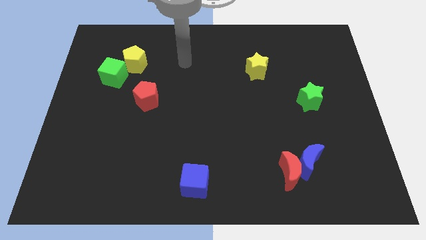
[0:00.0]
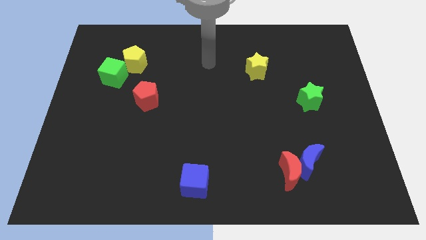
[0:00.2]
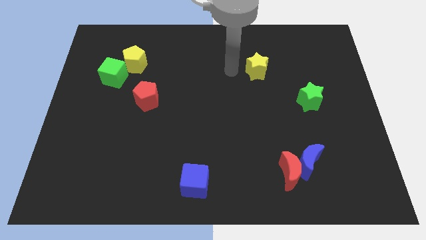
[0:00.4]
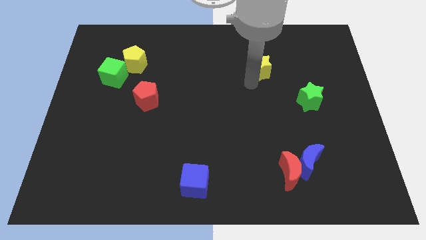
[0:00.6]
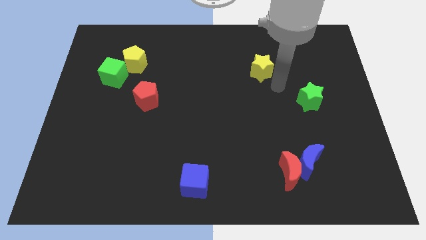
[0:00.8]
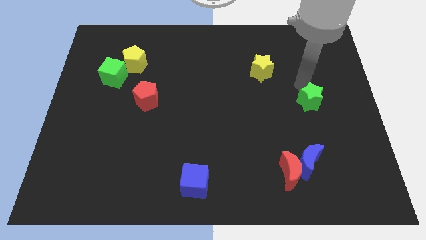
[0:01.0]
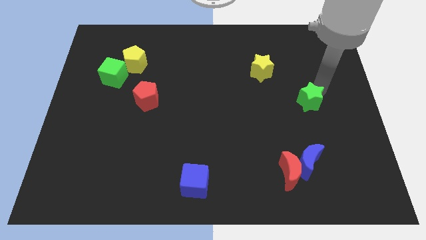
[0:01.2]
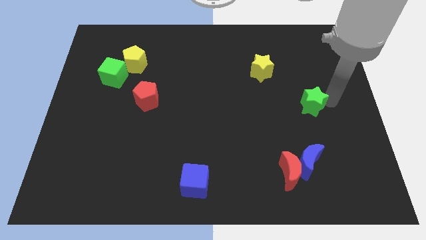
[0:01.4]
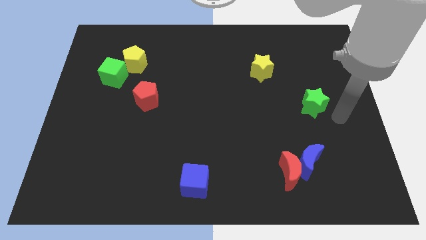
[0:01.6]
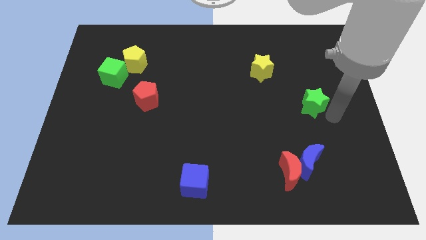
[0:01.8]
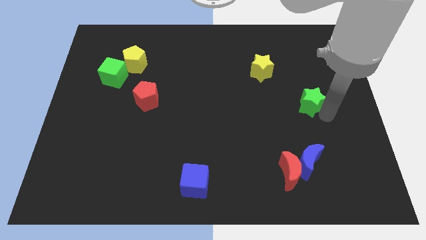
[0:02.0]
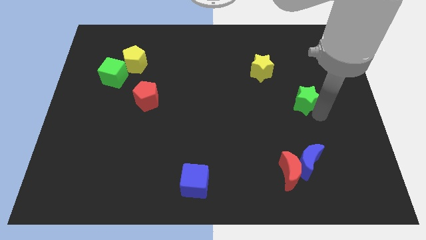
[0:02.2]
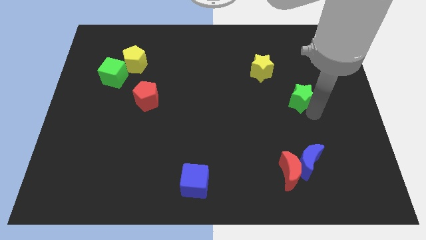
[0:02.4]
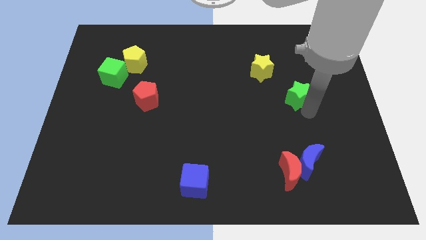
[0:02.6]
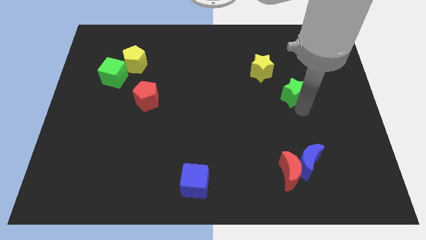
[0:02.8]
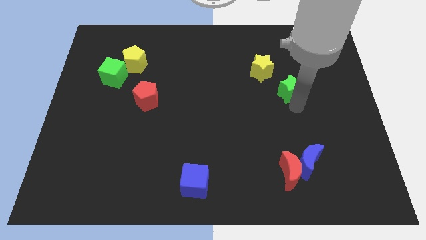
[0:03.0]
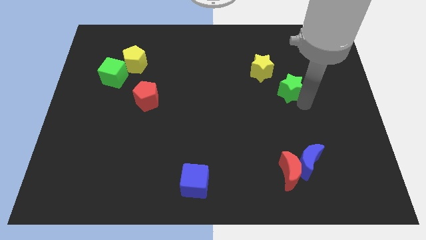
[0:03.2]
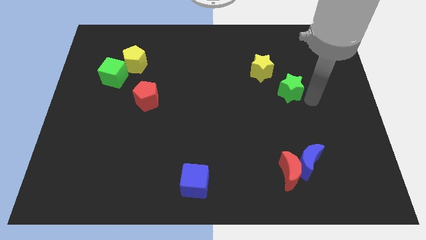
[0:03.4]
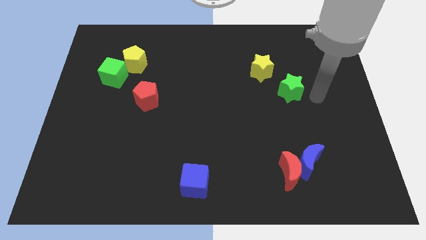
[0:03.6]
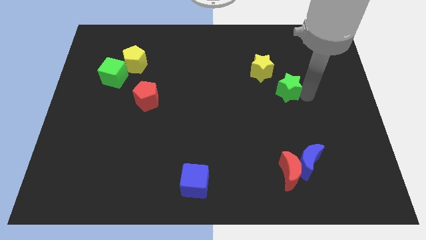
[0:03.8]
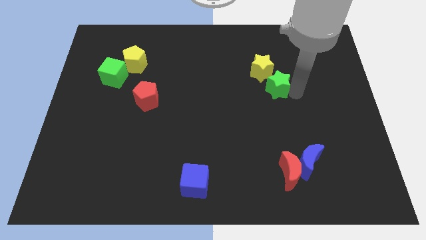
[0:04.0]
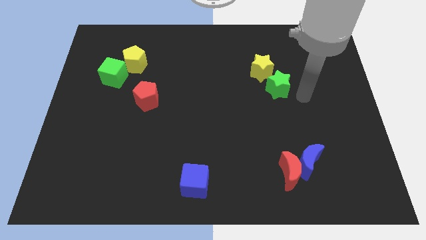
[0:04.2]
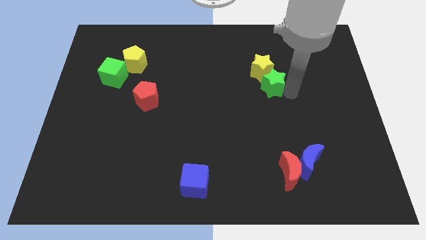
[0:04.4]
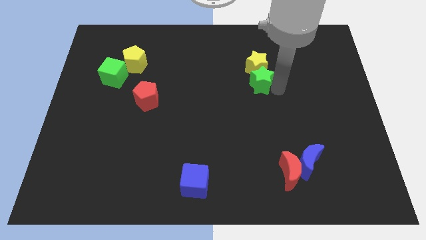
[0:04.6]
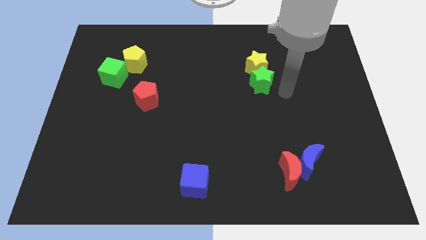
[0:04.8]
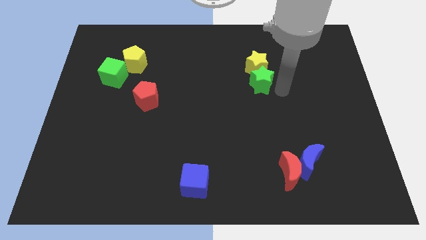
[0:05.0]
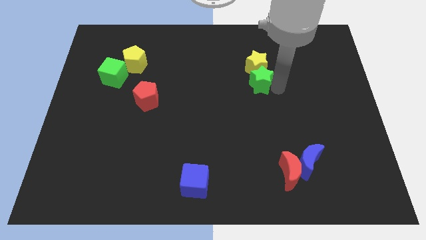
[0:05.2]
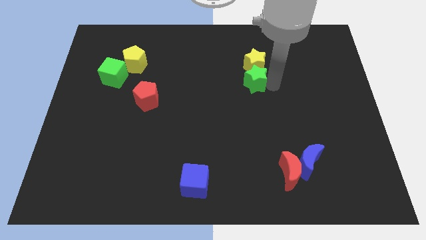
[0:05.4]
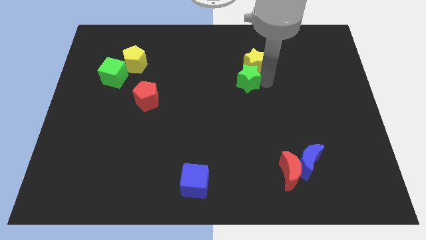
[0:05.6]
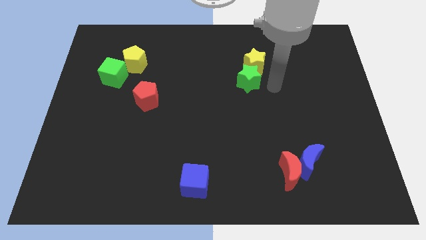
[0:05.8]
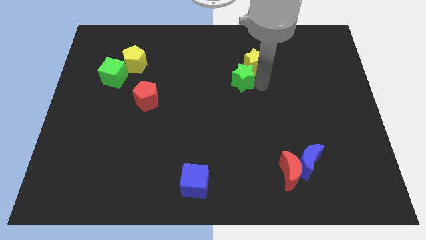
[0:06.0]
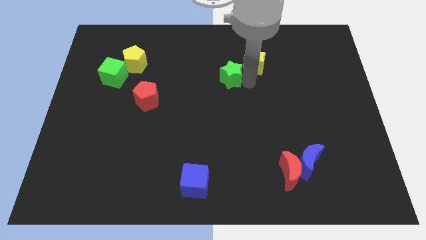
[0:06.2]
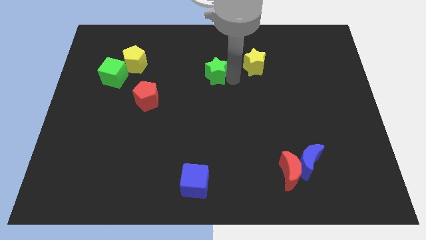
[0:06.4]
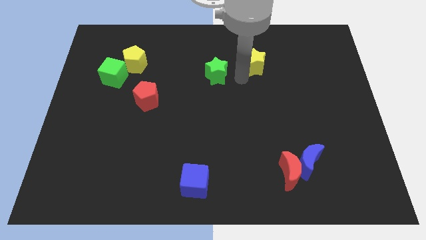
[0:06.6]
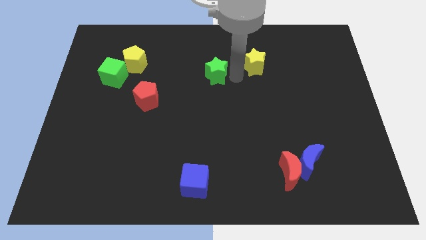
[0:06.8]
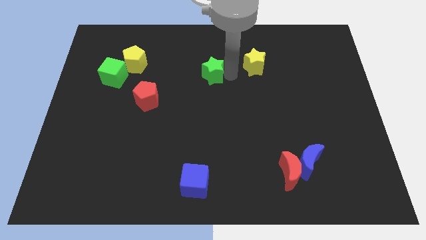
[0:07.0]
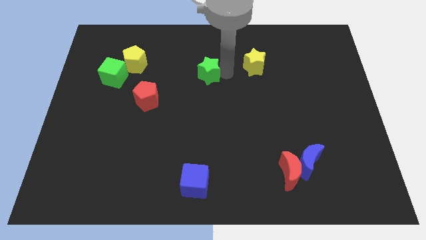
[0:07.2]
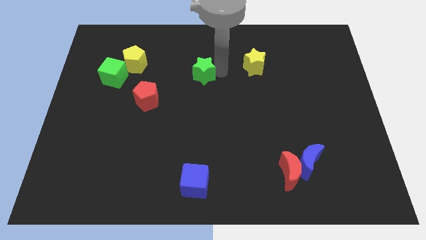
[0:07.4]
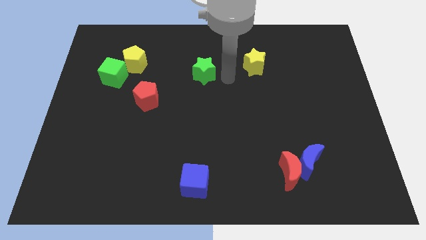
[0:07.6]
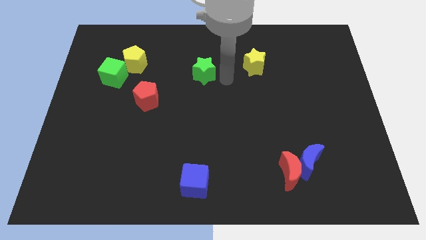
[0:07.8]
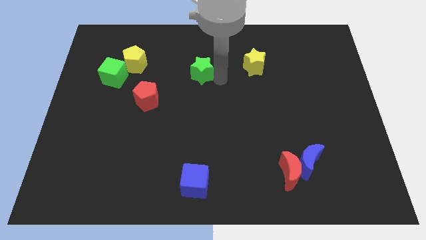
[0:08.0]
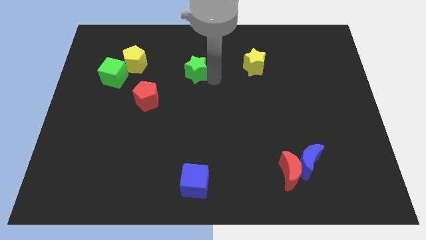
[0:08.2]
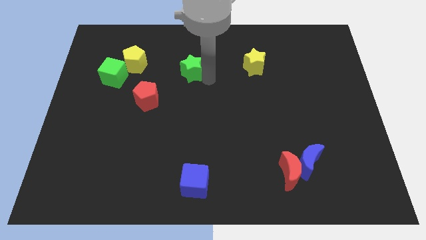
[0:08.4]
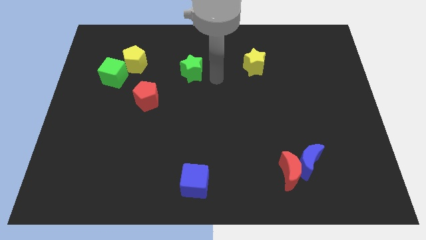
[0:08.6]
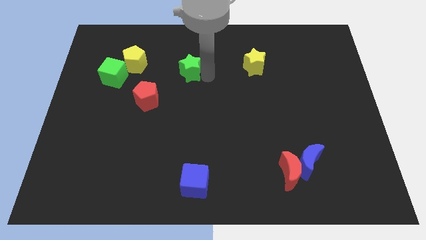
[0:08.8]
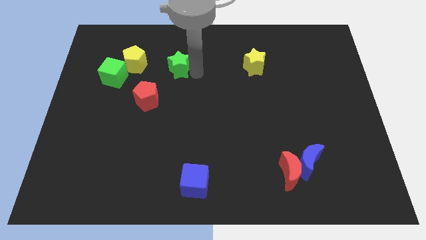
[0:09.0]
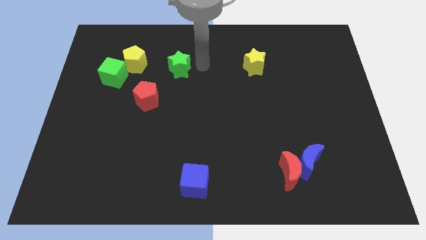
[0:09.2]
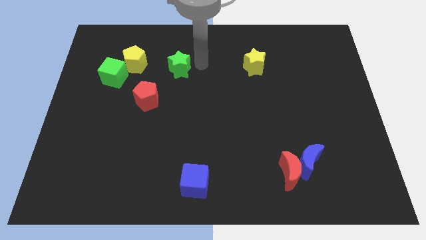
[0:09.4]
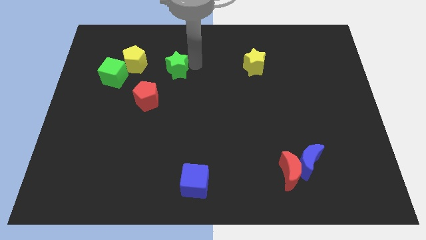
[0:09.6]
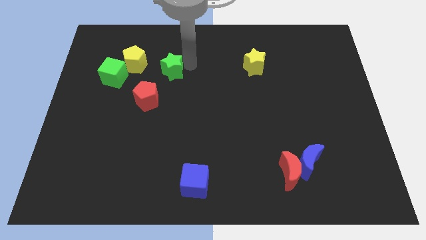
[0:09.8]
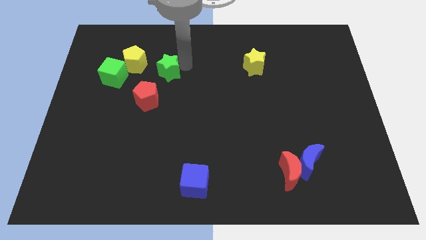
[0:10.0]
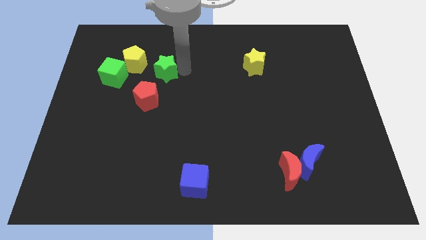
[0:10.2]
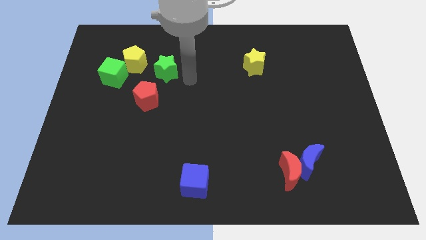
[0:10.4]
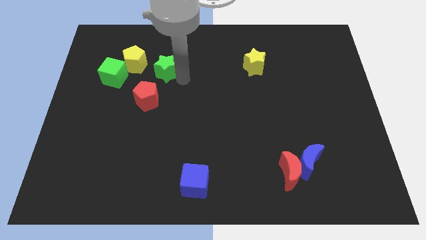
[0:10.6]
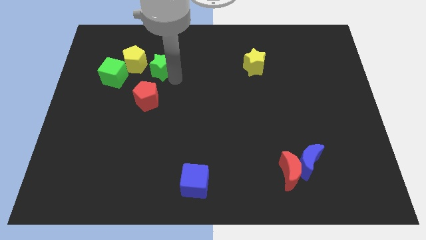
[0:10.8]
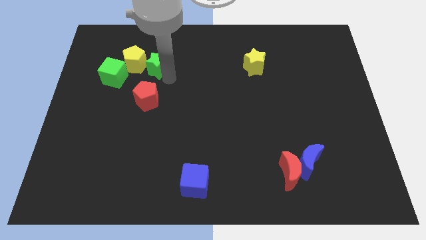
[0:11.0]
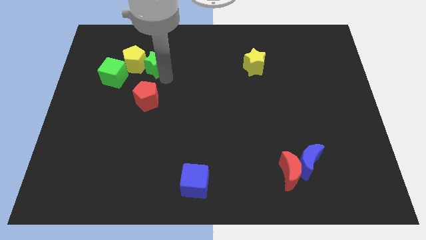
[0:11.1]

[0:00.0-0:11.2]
move the green star to the yellow pentagon

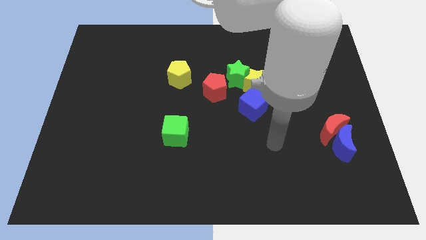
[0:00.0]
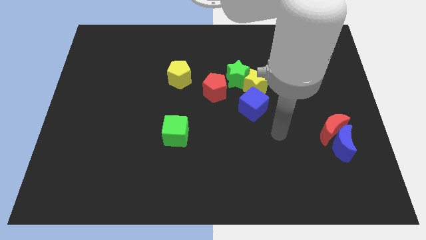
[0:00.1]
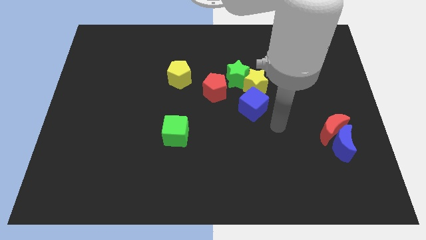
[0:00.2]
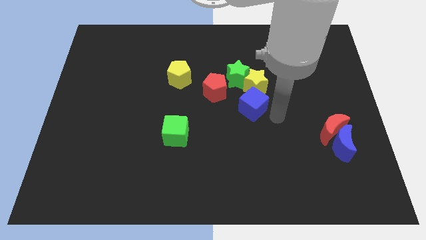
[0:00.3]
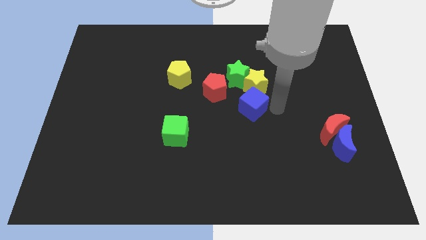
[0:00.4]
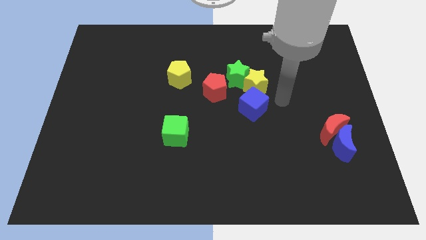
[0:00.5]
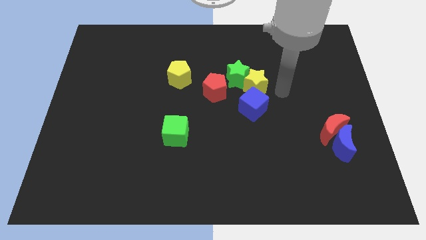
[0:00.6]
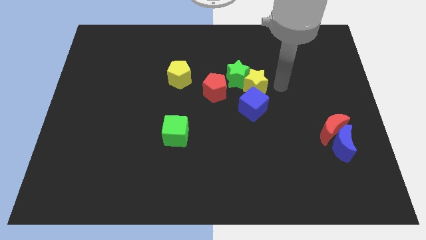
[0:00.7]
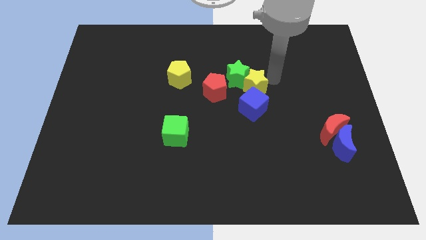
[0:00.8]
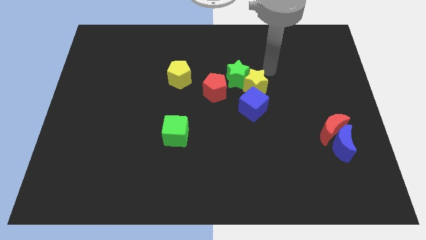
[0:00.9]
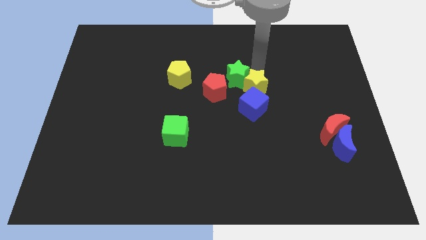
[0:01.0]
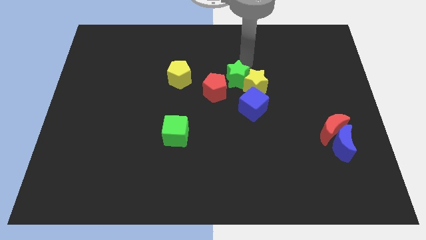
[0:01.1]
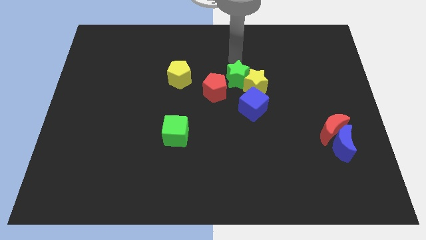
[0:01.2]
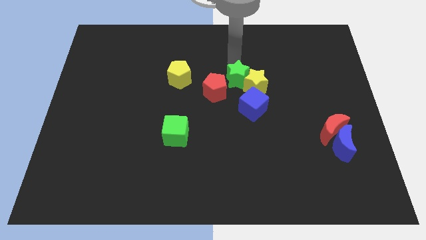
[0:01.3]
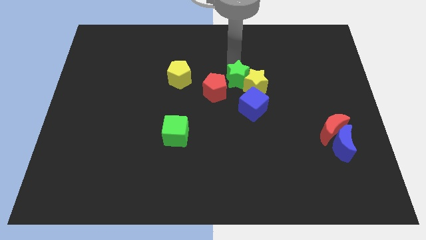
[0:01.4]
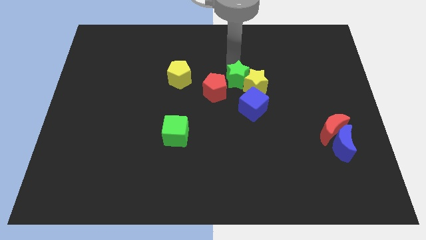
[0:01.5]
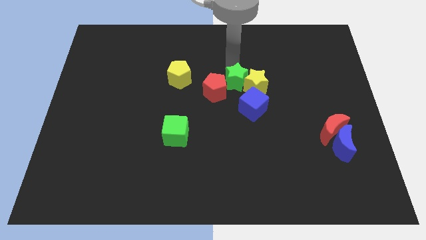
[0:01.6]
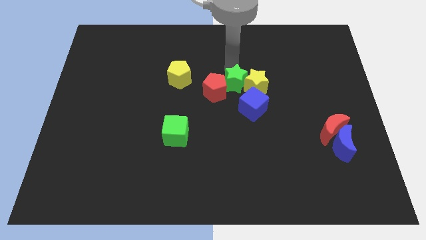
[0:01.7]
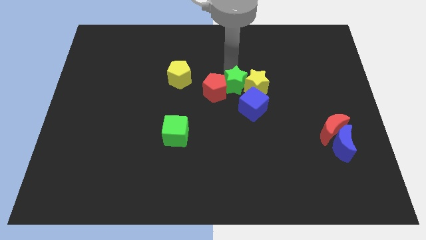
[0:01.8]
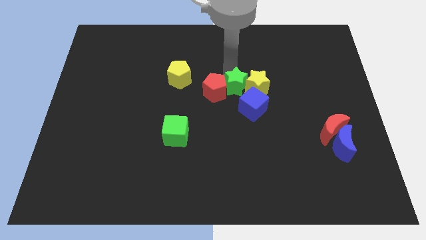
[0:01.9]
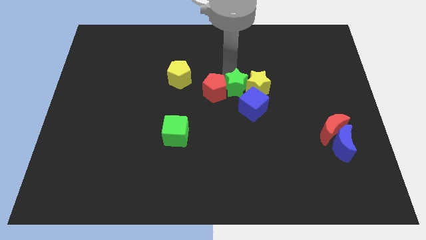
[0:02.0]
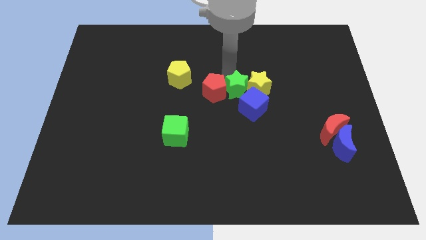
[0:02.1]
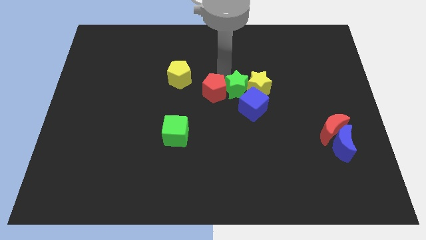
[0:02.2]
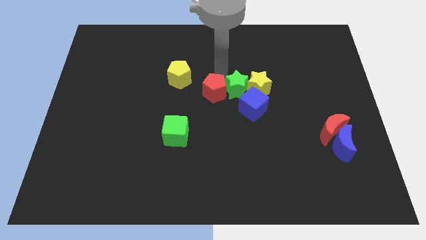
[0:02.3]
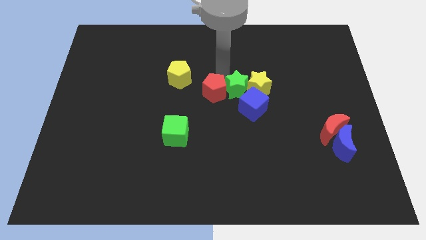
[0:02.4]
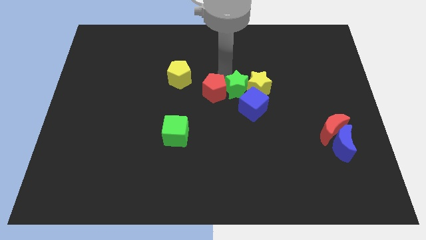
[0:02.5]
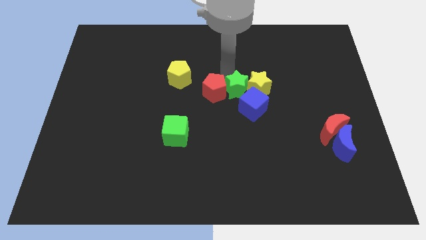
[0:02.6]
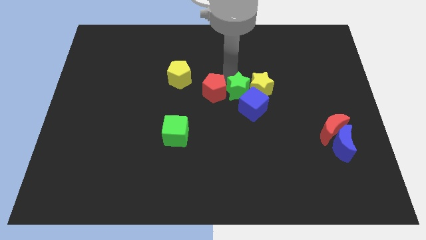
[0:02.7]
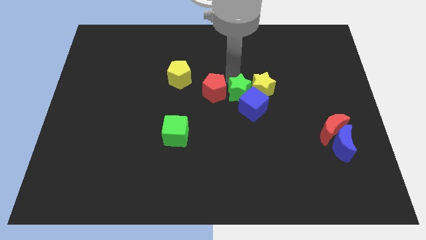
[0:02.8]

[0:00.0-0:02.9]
push the green star next to the blue cube
